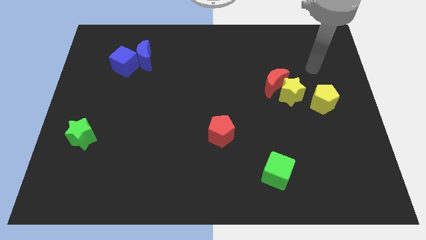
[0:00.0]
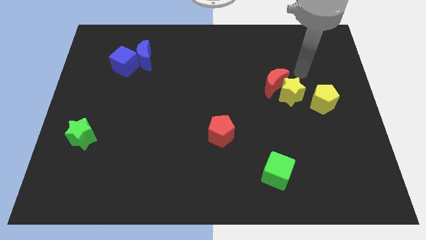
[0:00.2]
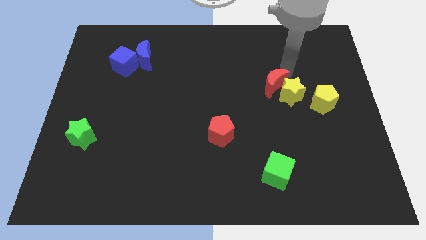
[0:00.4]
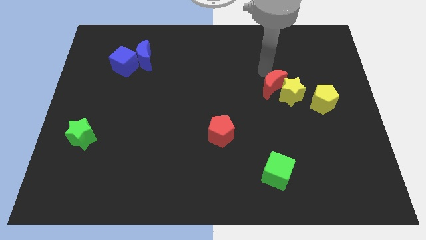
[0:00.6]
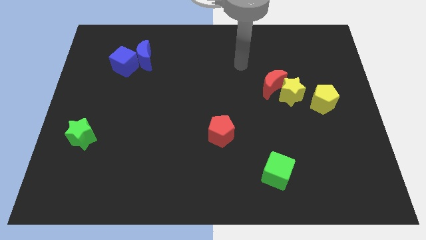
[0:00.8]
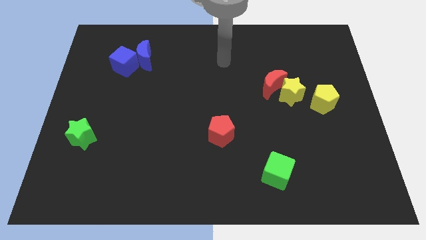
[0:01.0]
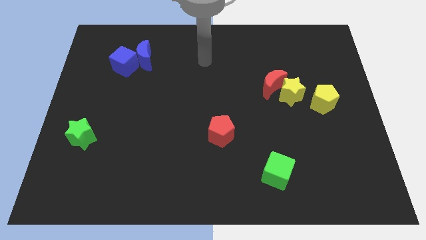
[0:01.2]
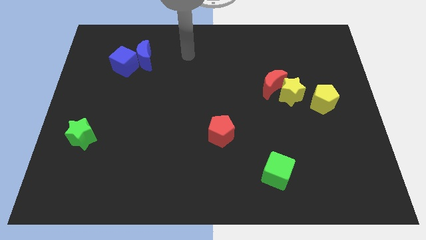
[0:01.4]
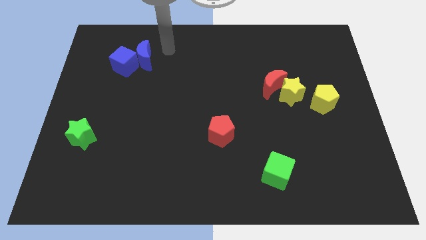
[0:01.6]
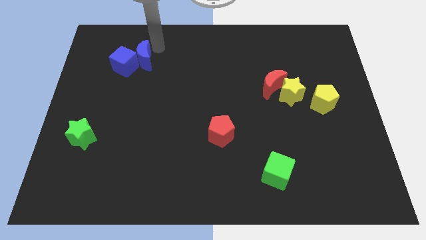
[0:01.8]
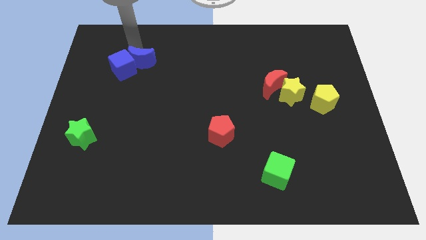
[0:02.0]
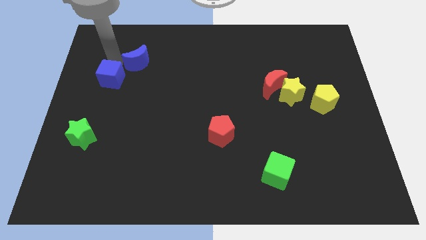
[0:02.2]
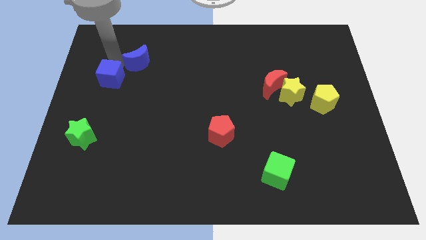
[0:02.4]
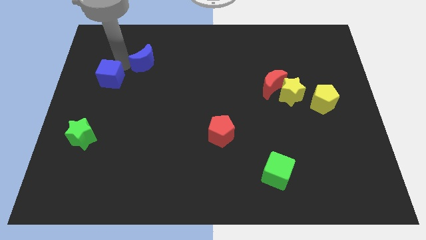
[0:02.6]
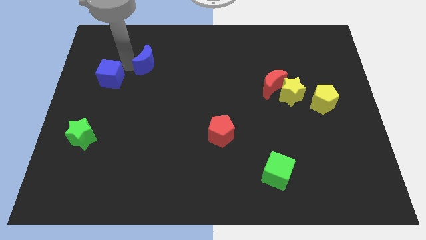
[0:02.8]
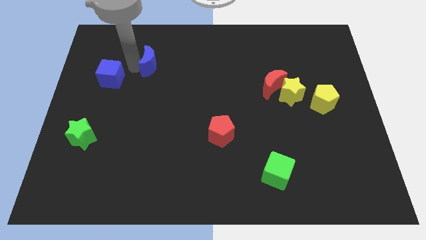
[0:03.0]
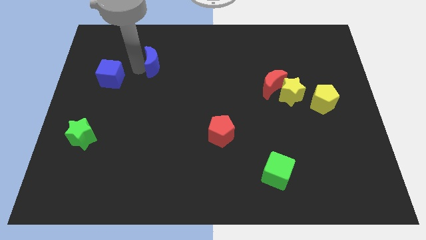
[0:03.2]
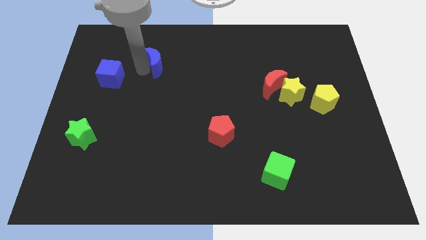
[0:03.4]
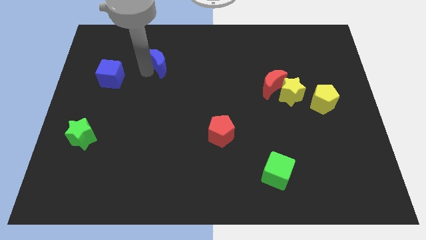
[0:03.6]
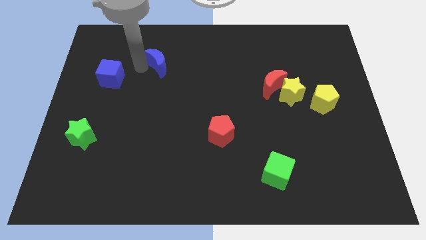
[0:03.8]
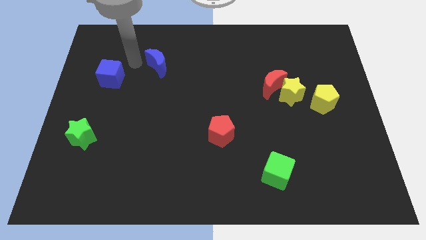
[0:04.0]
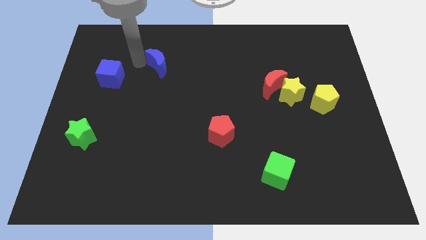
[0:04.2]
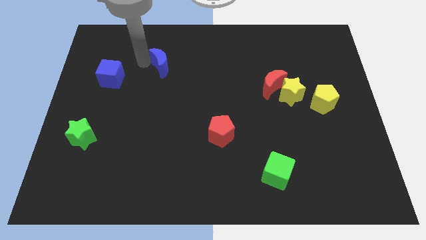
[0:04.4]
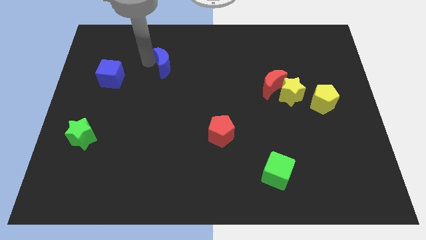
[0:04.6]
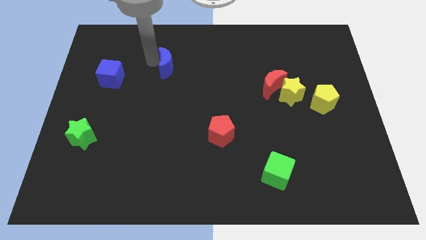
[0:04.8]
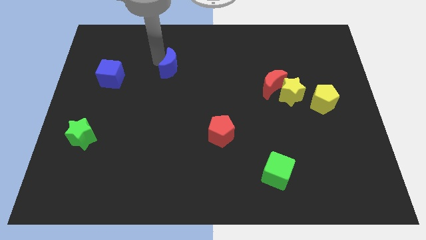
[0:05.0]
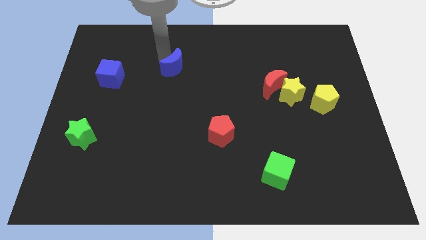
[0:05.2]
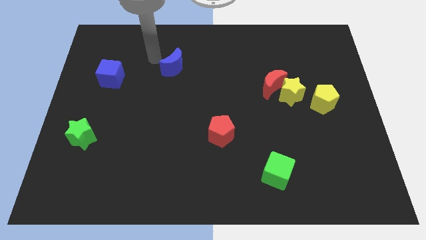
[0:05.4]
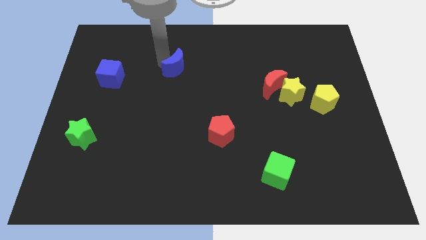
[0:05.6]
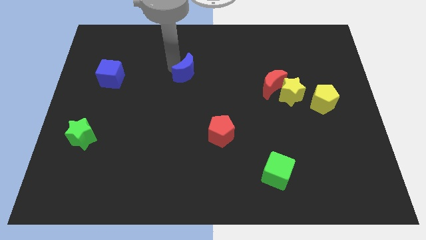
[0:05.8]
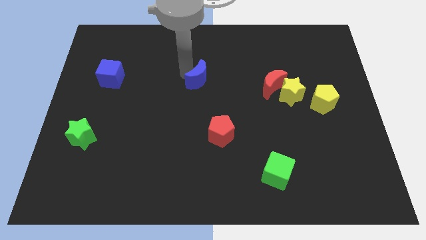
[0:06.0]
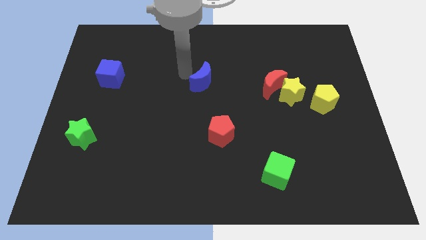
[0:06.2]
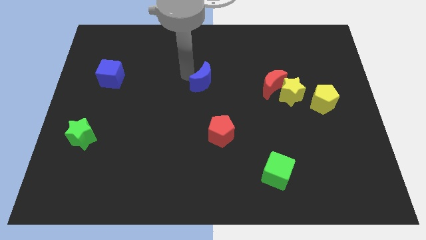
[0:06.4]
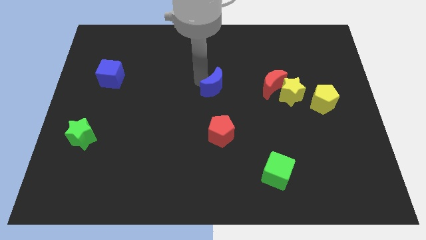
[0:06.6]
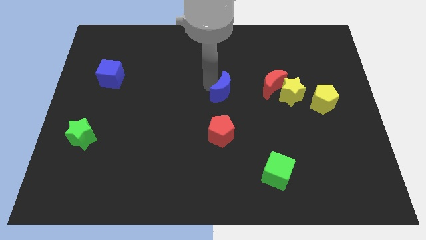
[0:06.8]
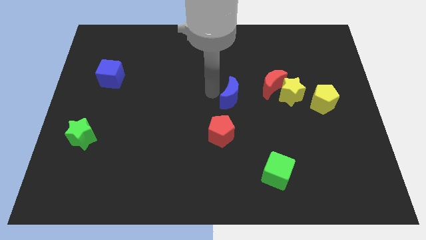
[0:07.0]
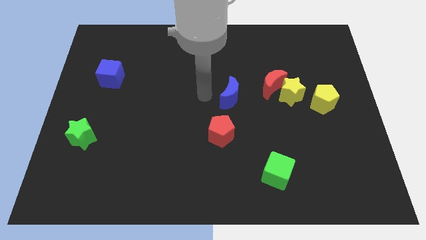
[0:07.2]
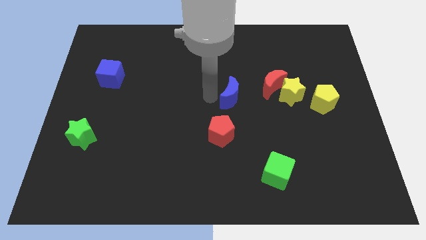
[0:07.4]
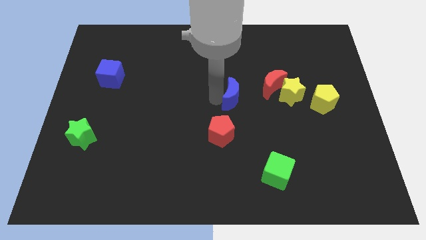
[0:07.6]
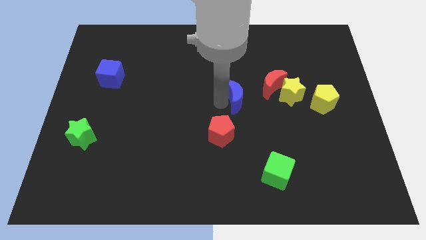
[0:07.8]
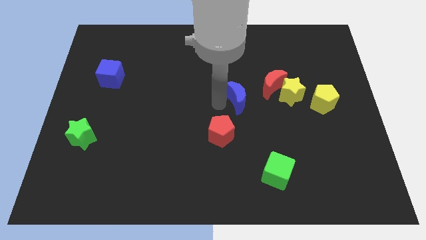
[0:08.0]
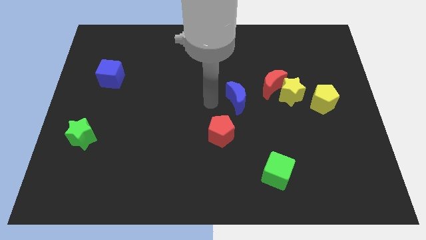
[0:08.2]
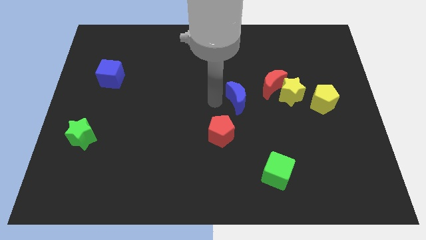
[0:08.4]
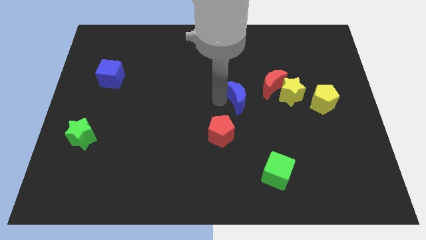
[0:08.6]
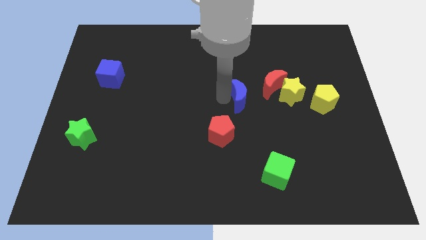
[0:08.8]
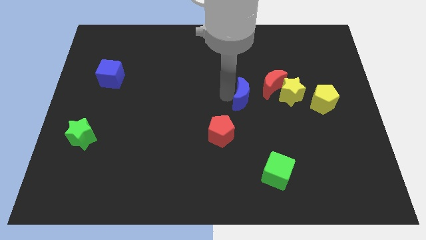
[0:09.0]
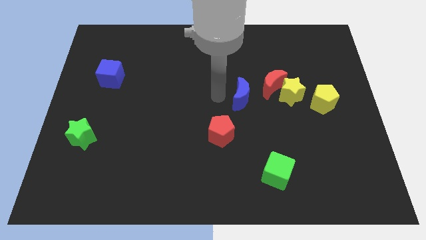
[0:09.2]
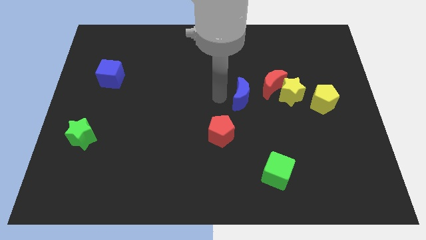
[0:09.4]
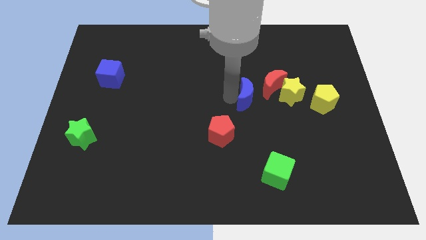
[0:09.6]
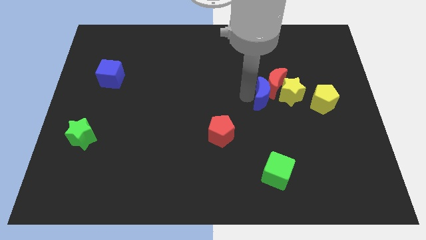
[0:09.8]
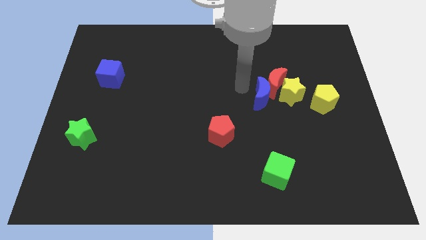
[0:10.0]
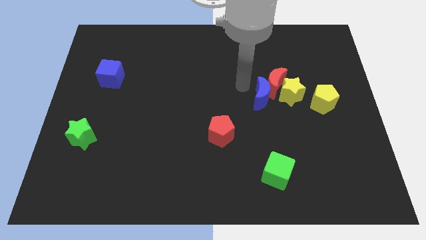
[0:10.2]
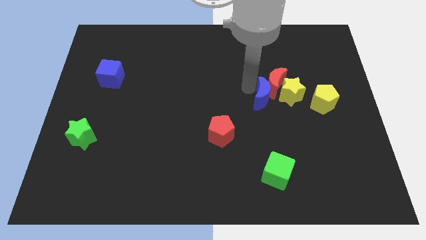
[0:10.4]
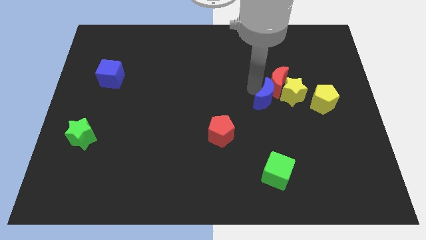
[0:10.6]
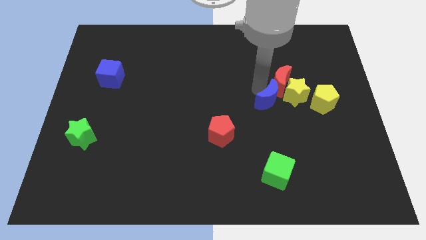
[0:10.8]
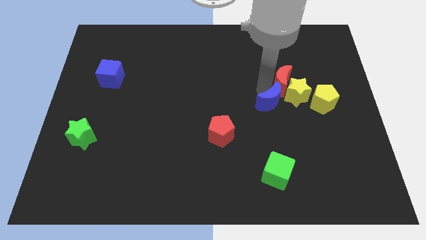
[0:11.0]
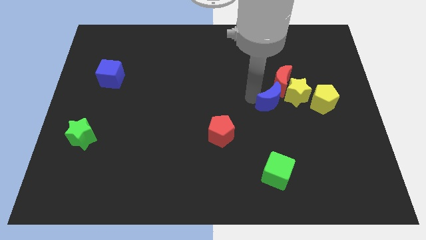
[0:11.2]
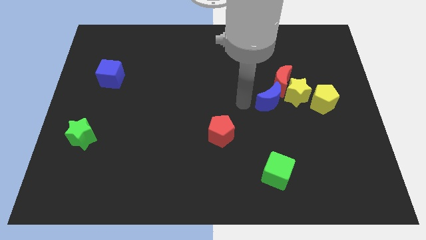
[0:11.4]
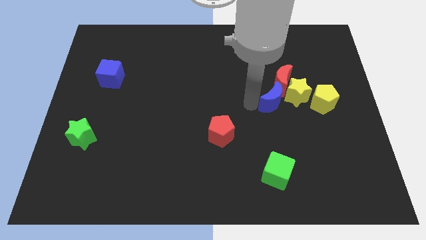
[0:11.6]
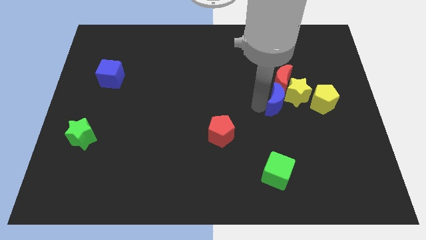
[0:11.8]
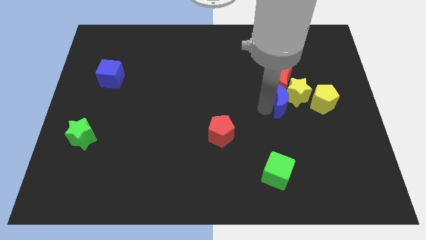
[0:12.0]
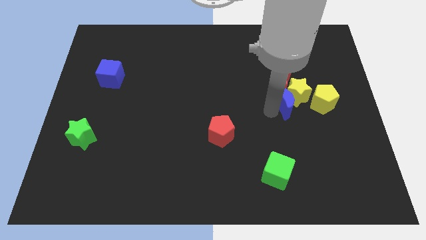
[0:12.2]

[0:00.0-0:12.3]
push the blue moon to the bottom right of the red moon

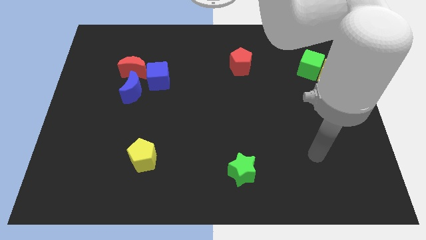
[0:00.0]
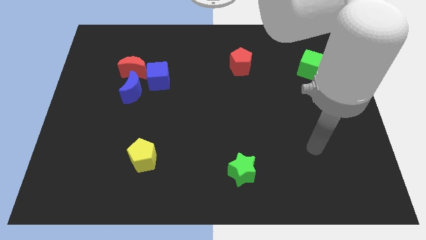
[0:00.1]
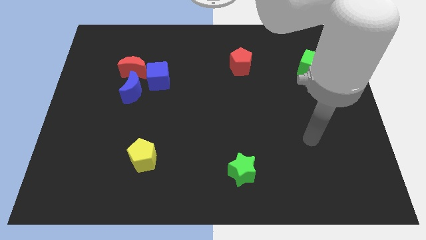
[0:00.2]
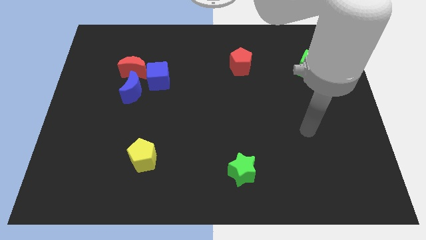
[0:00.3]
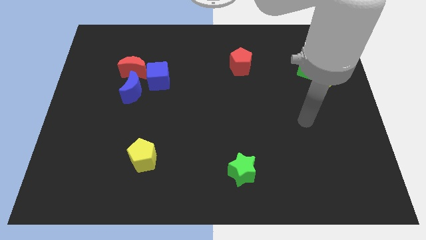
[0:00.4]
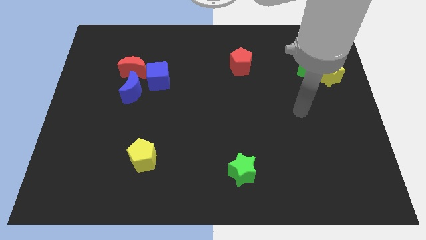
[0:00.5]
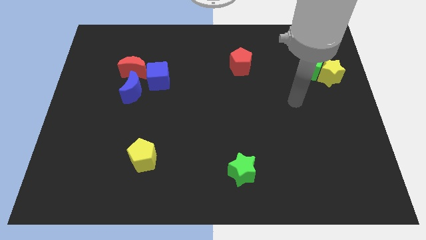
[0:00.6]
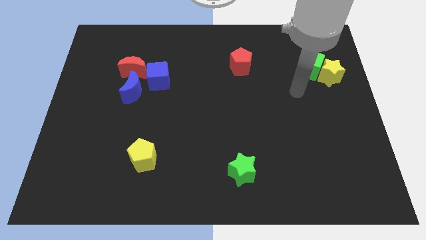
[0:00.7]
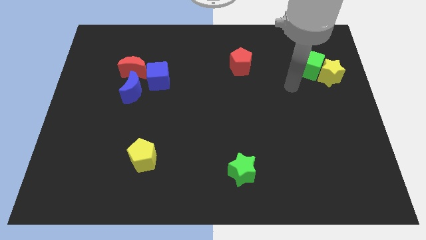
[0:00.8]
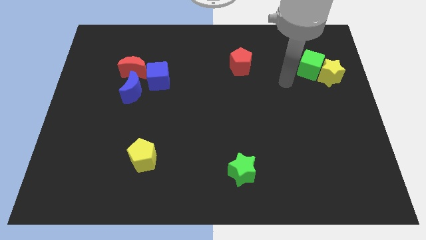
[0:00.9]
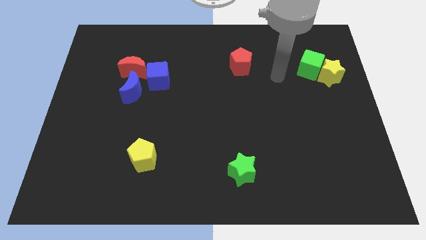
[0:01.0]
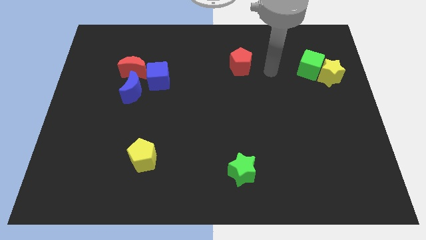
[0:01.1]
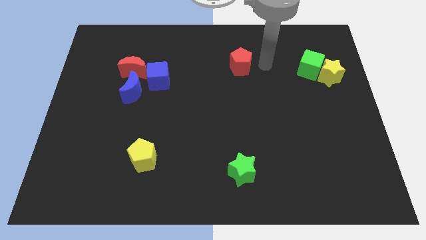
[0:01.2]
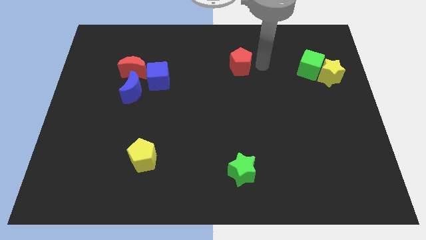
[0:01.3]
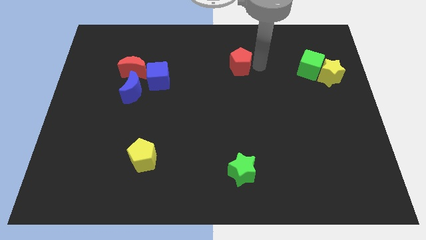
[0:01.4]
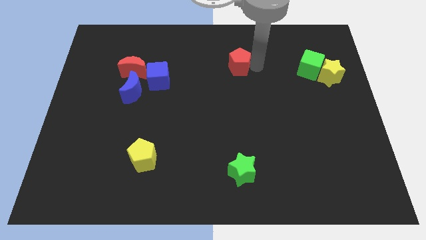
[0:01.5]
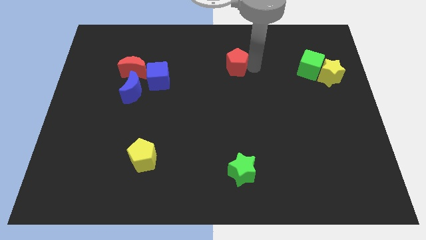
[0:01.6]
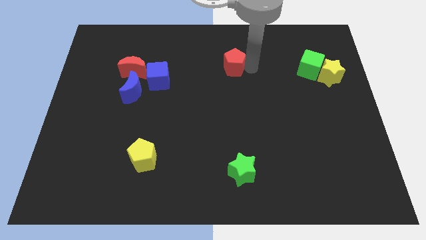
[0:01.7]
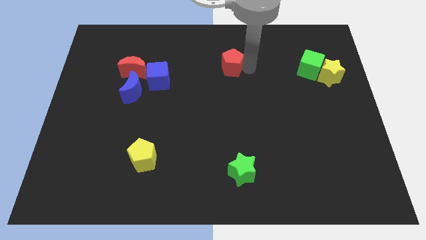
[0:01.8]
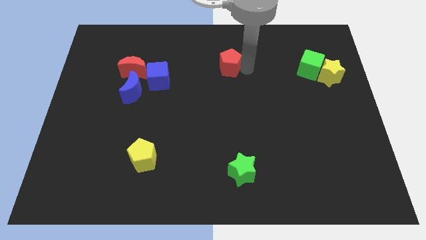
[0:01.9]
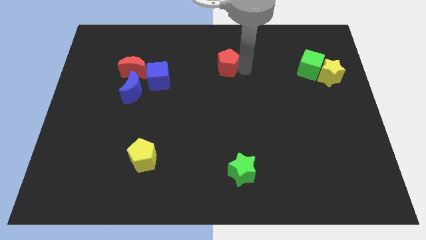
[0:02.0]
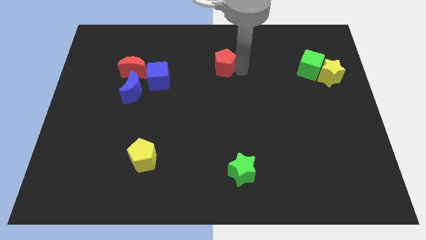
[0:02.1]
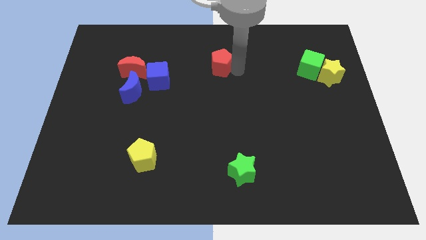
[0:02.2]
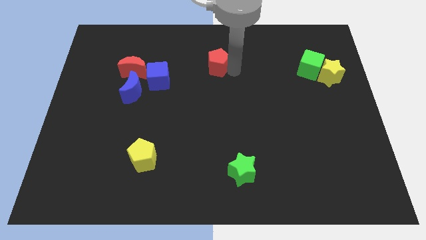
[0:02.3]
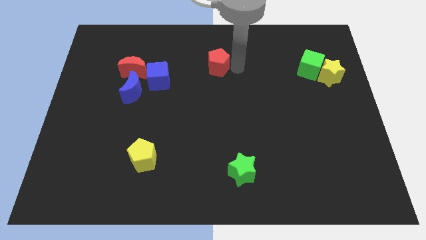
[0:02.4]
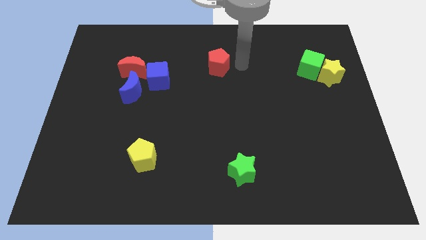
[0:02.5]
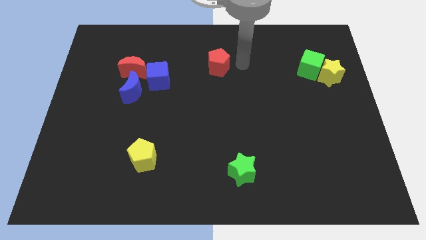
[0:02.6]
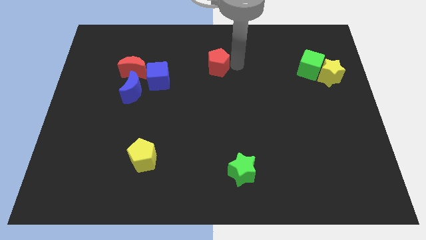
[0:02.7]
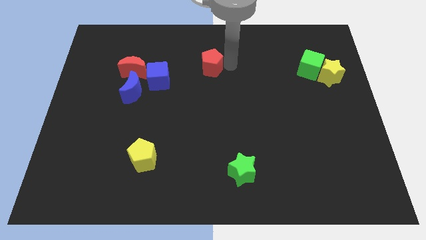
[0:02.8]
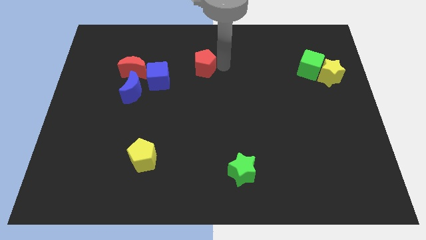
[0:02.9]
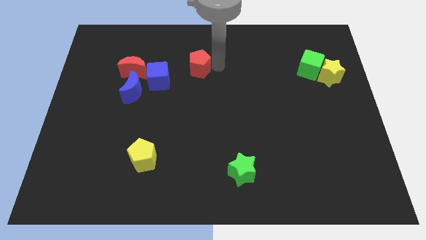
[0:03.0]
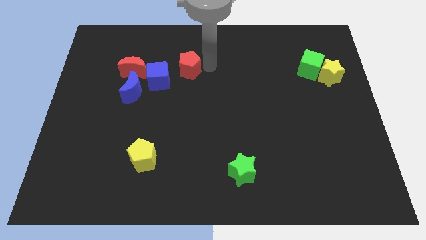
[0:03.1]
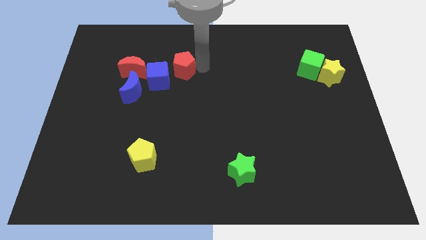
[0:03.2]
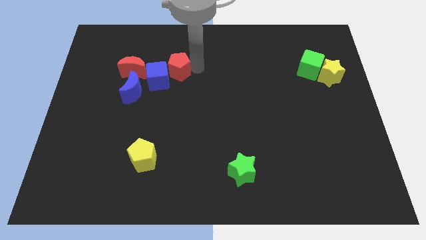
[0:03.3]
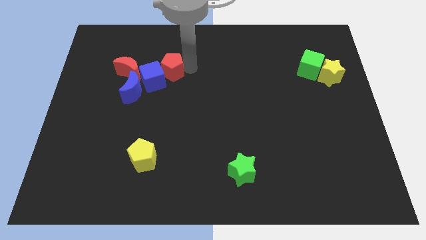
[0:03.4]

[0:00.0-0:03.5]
slide the red pentagon to the top right of the blue moon
